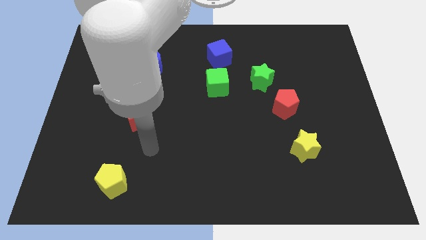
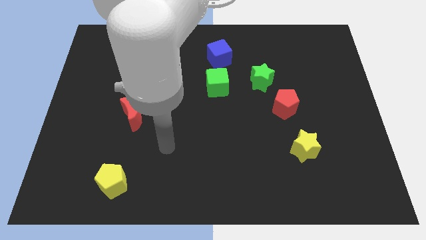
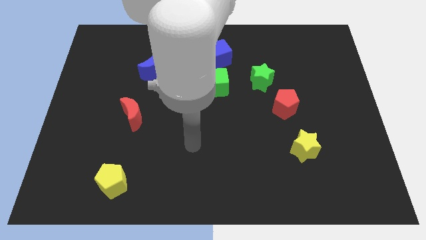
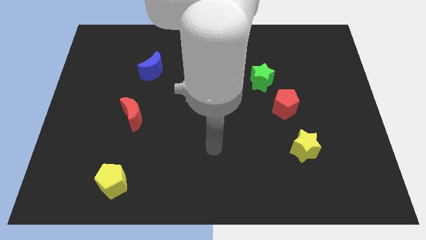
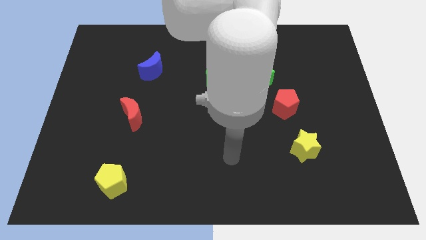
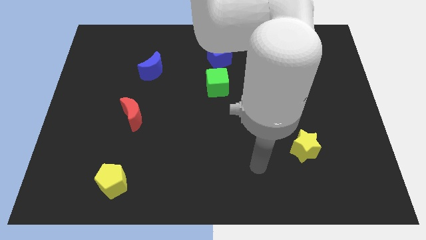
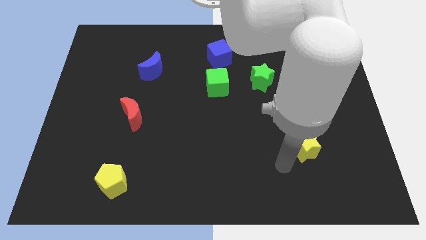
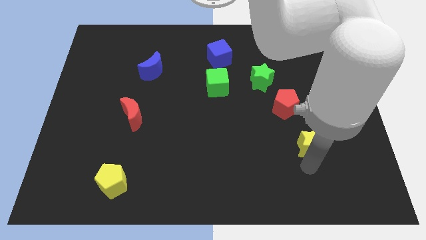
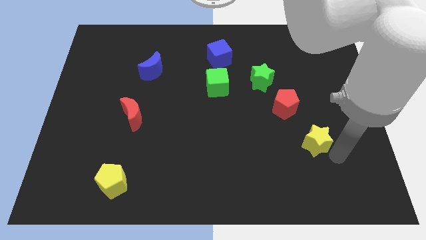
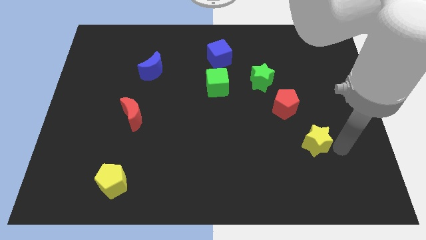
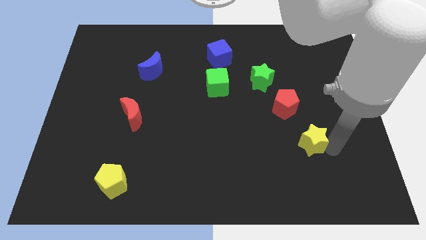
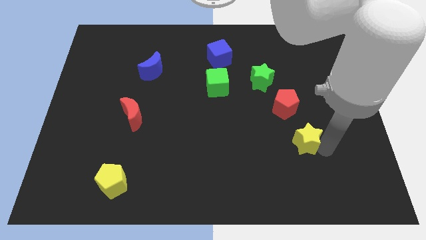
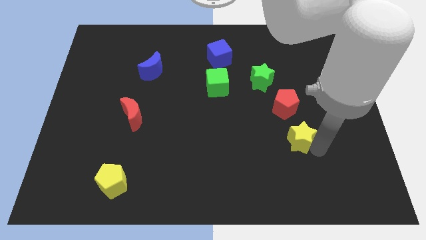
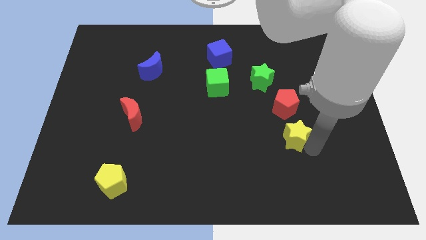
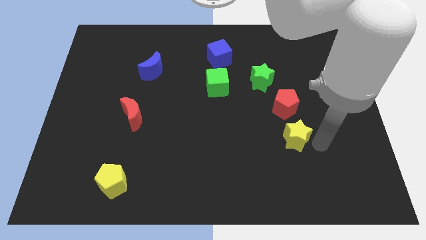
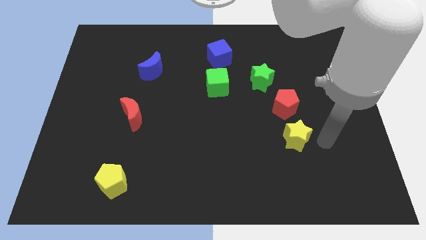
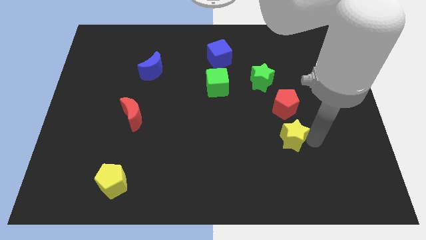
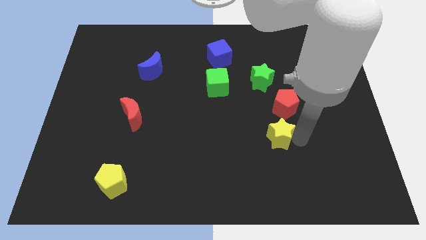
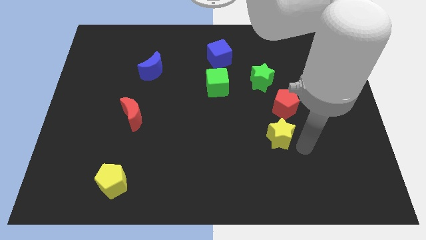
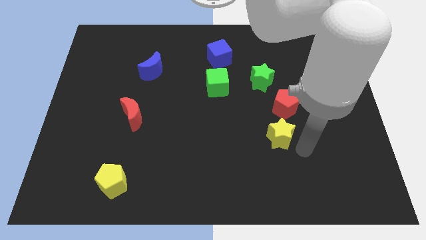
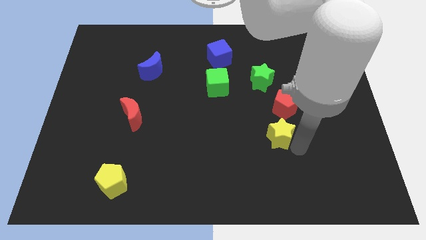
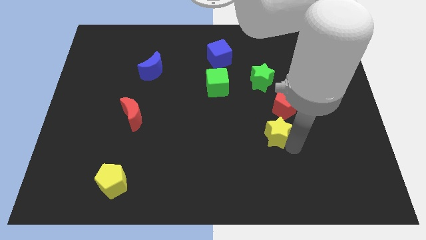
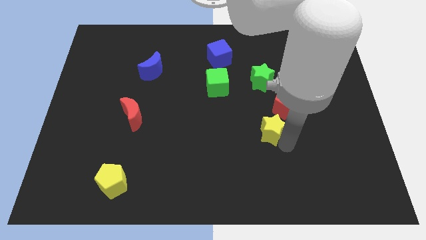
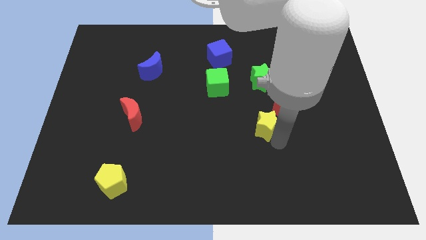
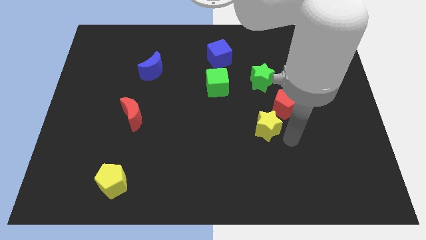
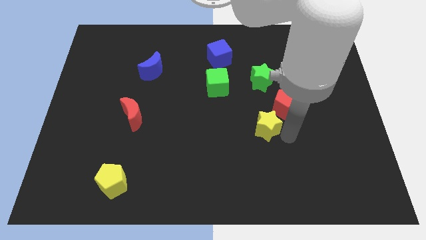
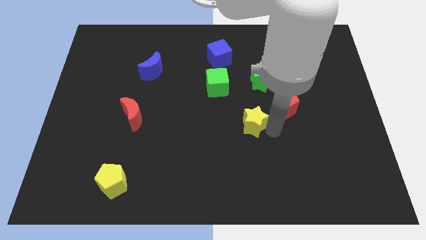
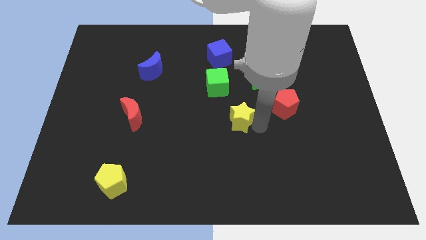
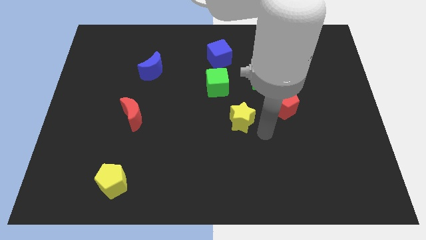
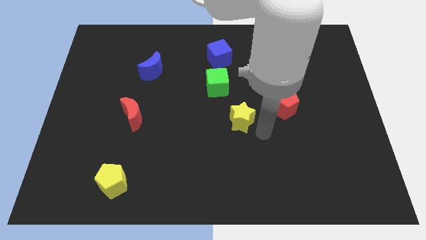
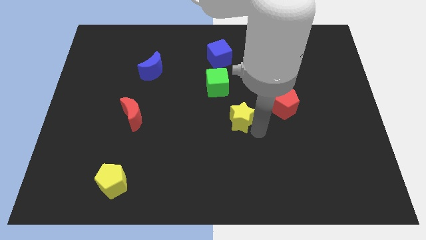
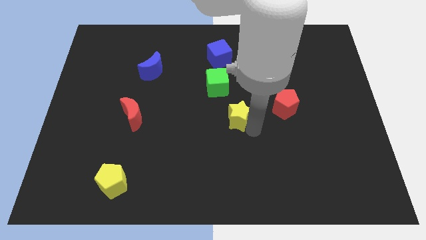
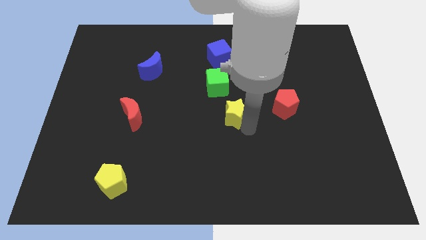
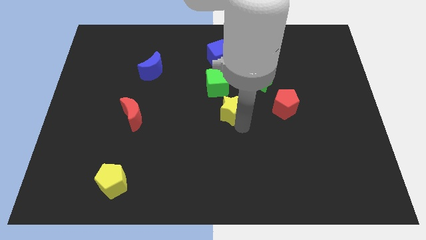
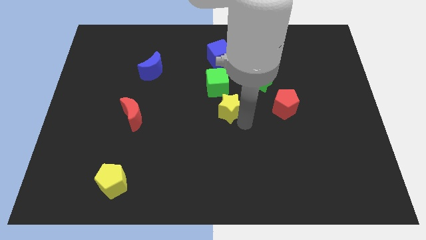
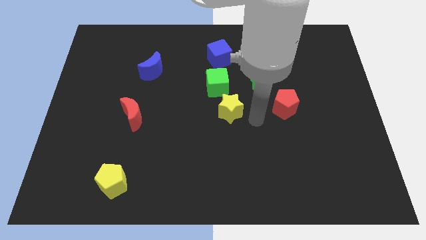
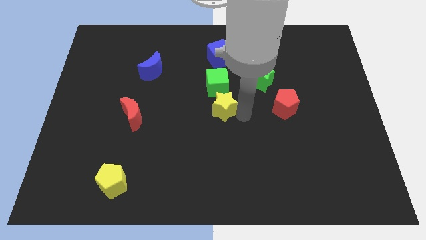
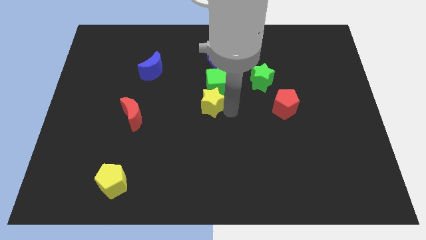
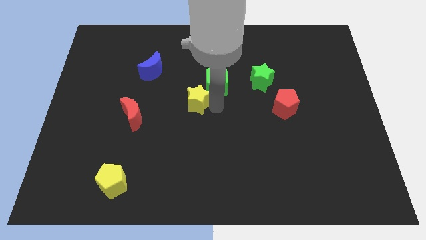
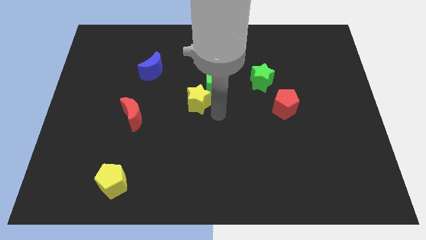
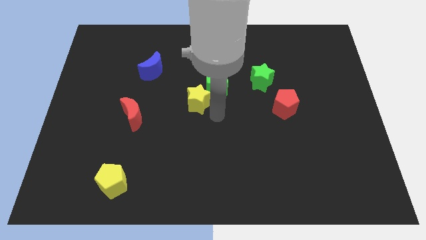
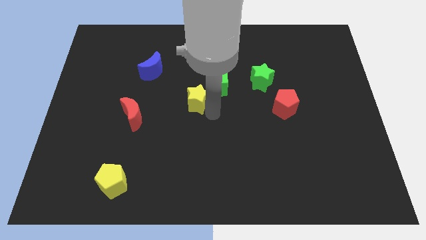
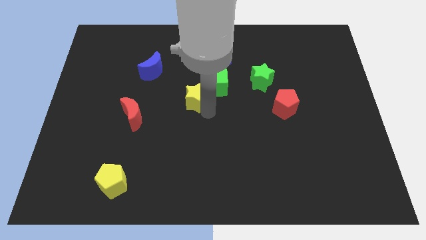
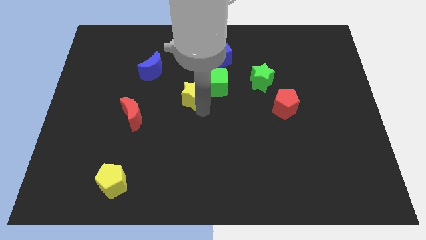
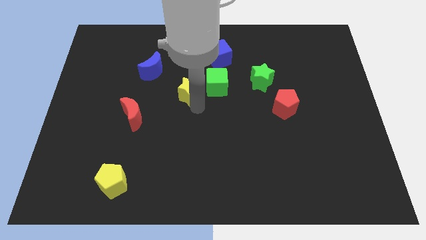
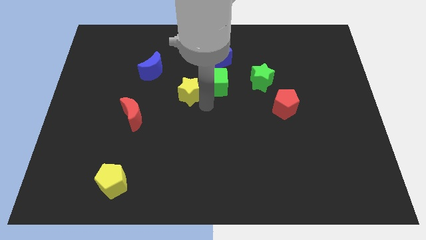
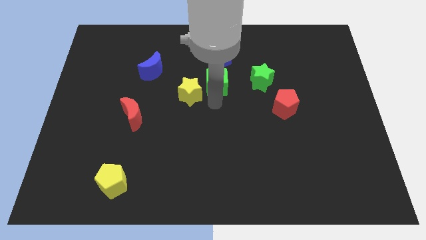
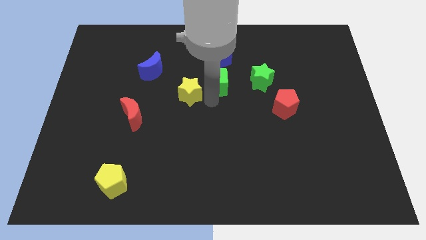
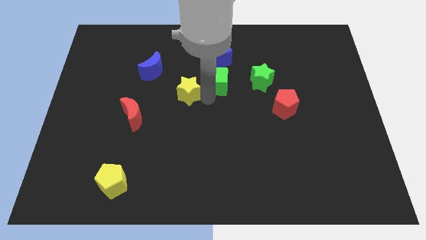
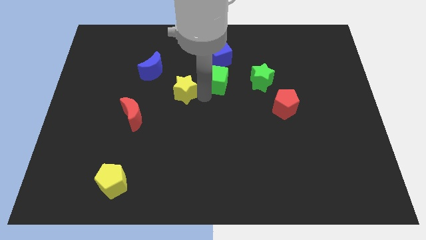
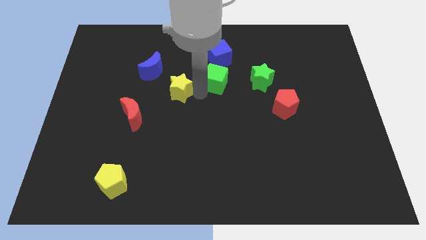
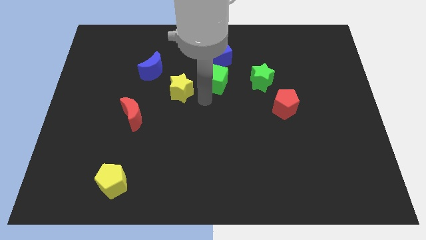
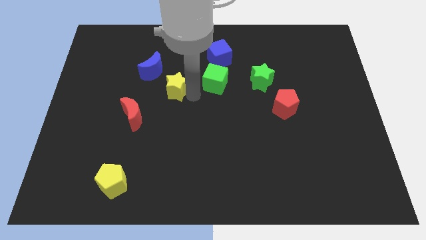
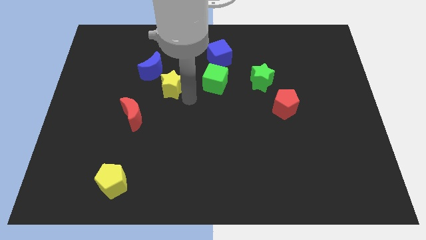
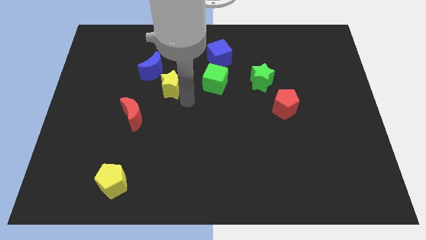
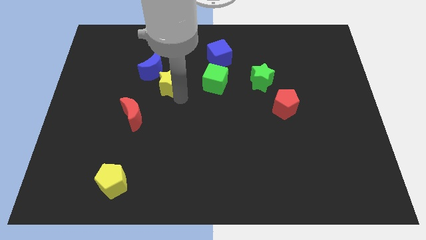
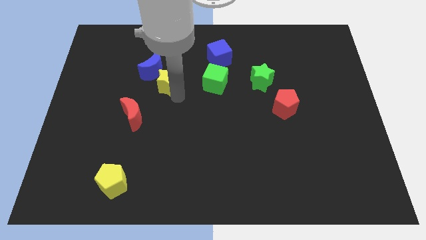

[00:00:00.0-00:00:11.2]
move the yellow star next to the blue moon

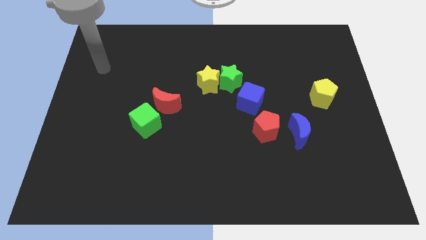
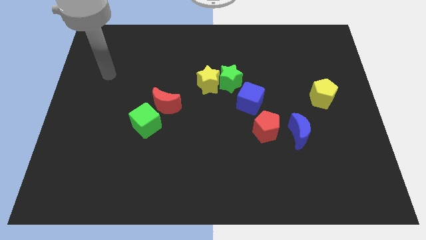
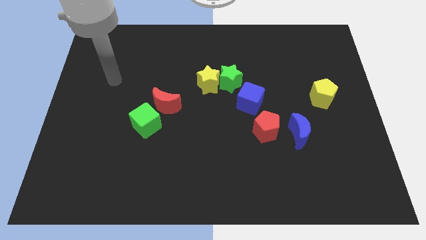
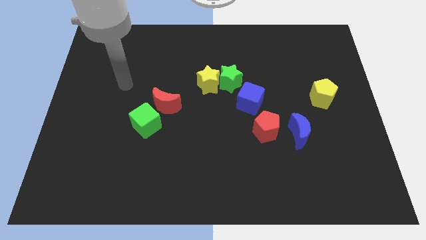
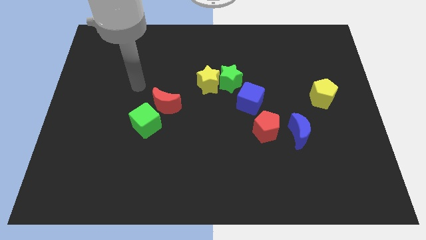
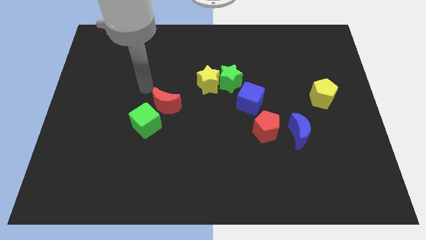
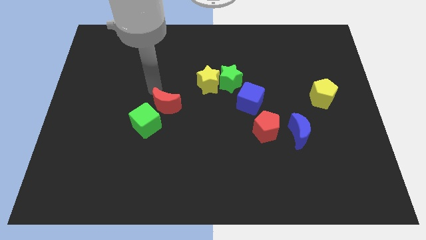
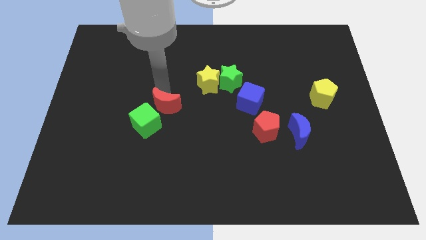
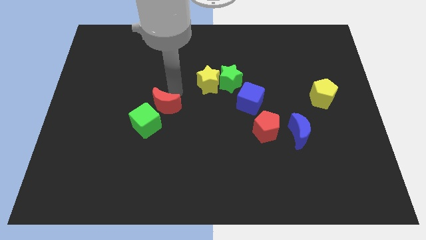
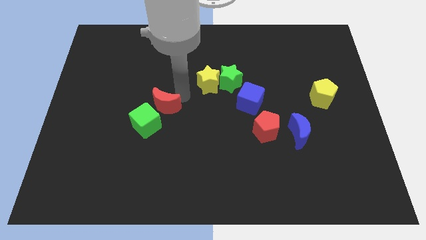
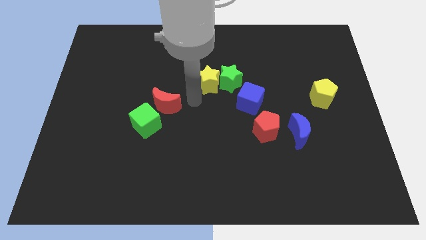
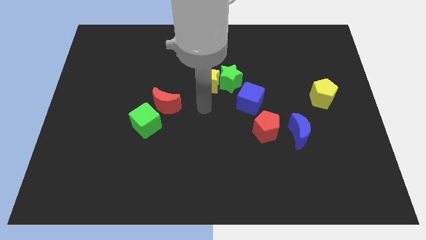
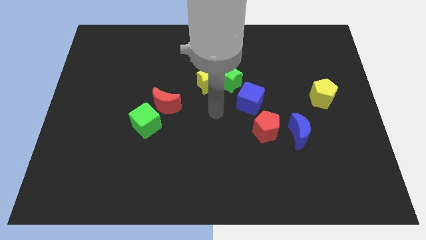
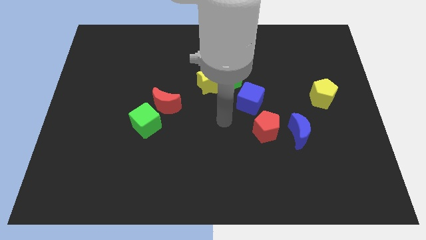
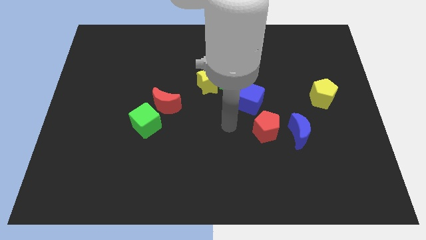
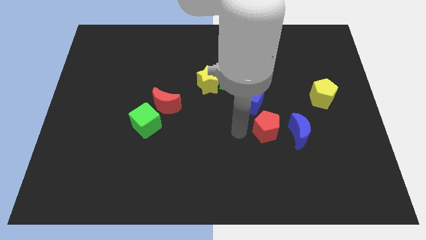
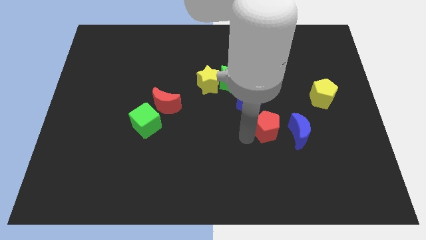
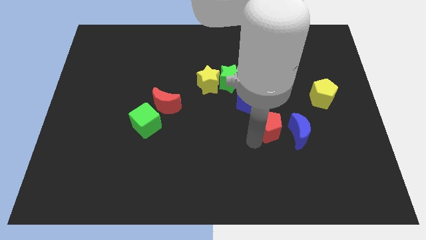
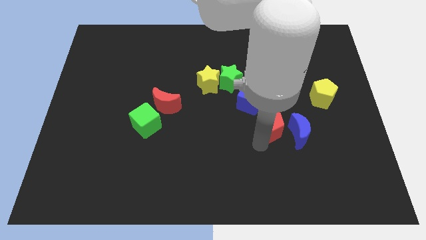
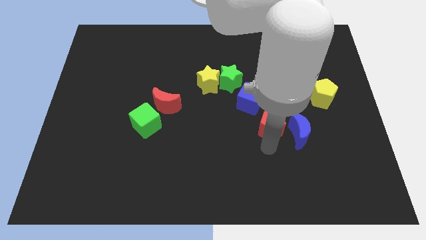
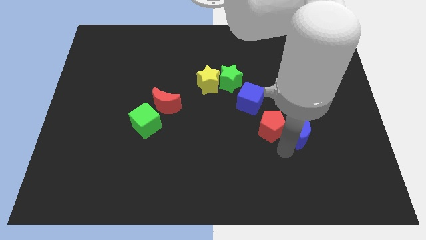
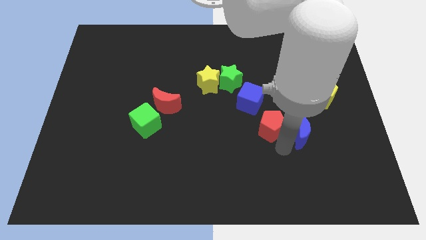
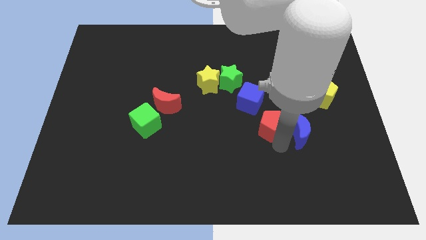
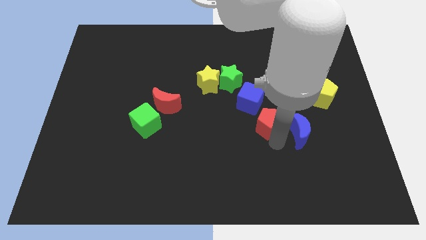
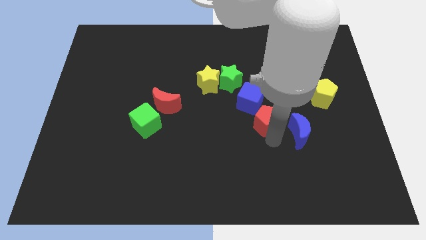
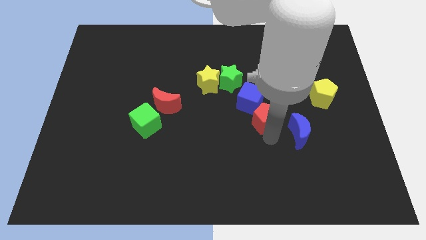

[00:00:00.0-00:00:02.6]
put the red pentagon close to the blue cube
